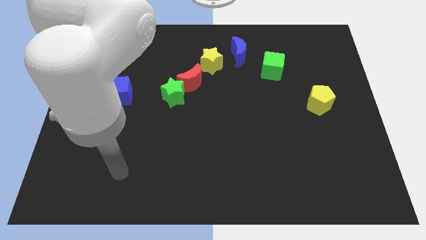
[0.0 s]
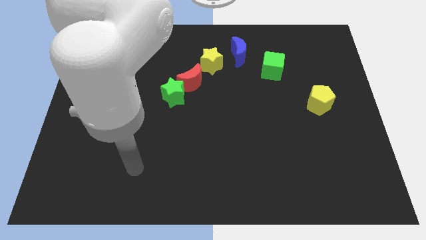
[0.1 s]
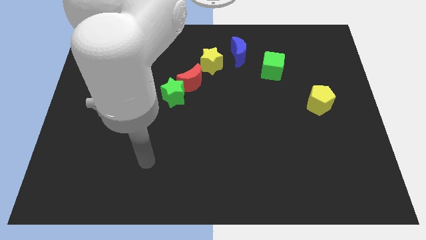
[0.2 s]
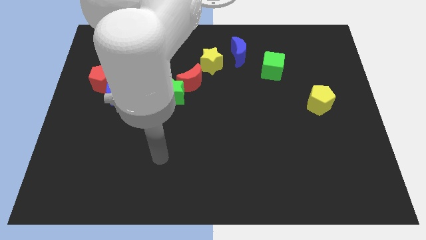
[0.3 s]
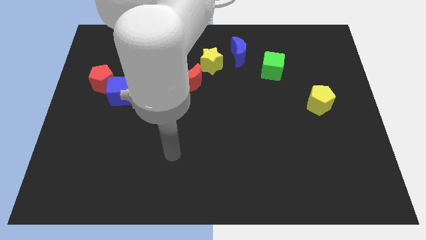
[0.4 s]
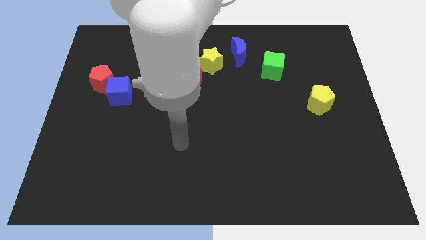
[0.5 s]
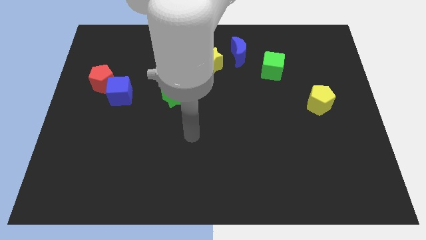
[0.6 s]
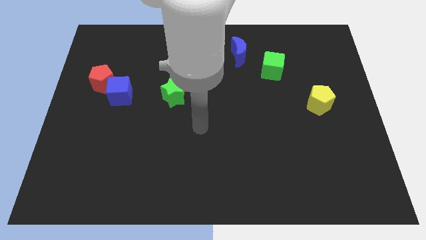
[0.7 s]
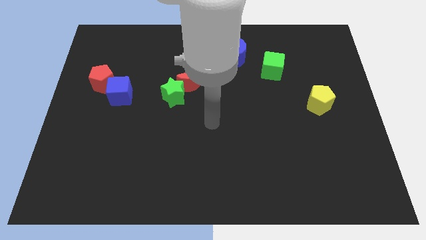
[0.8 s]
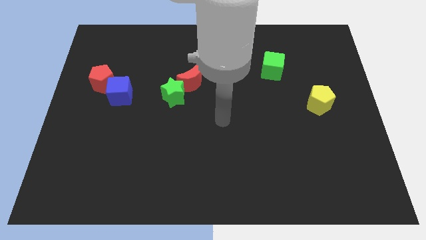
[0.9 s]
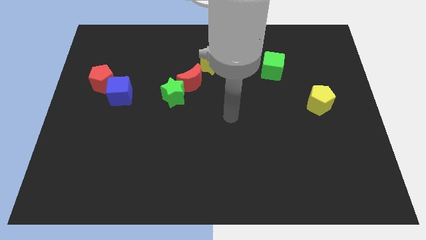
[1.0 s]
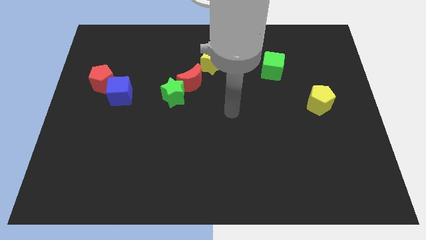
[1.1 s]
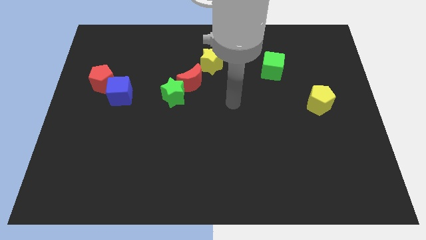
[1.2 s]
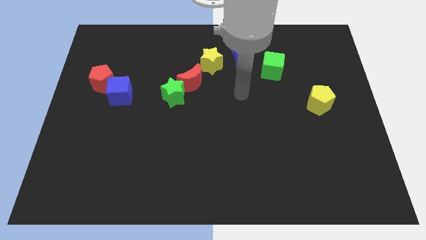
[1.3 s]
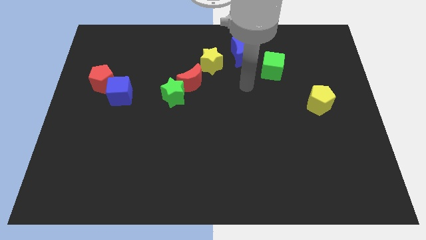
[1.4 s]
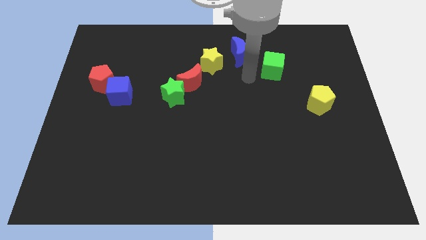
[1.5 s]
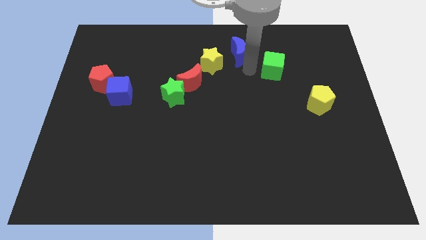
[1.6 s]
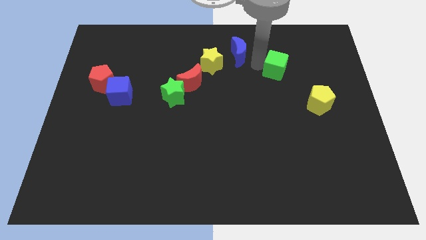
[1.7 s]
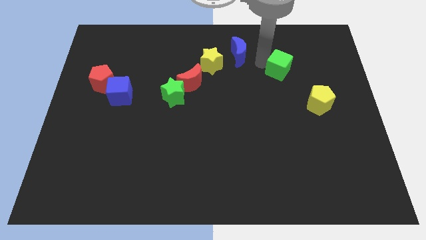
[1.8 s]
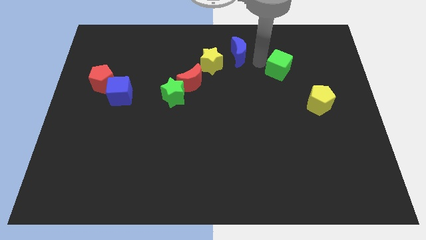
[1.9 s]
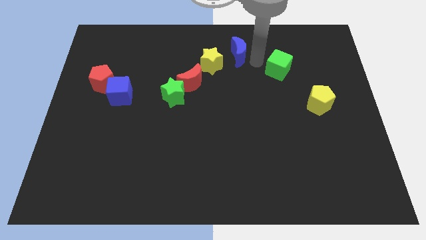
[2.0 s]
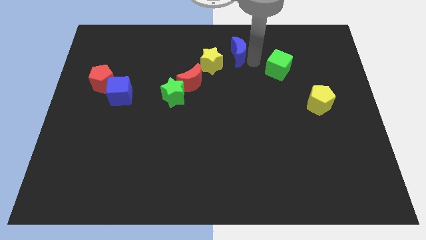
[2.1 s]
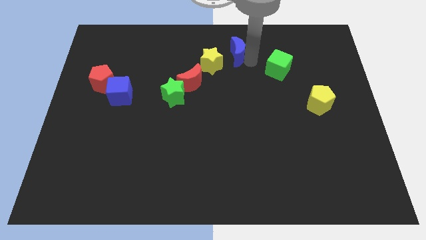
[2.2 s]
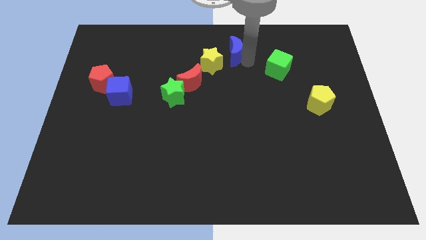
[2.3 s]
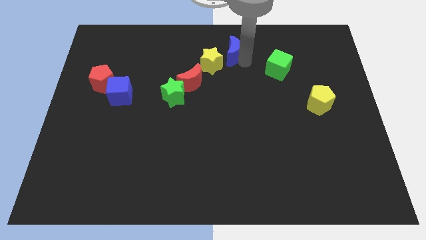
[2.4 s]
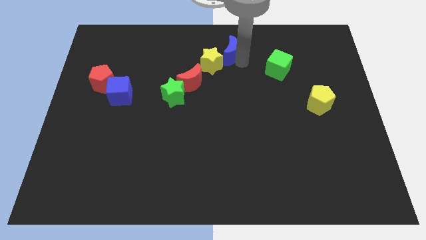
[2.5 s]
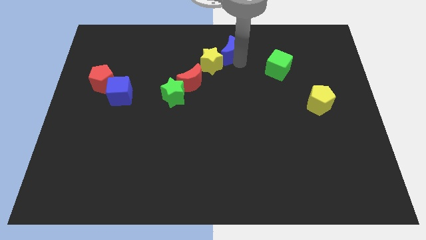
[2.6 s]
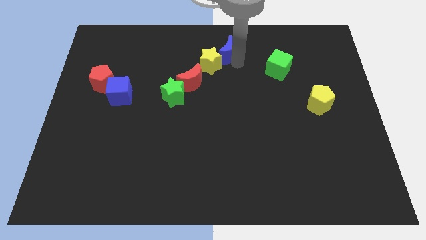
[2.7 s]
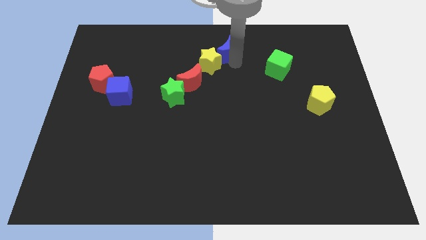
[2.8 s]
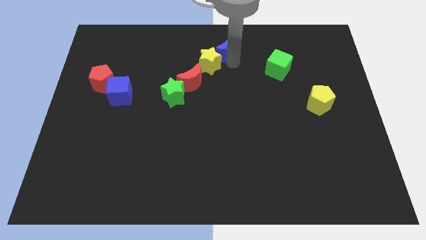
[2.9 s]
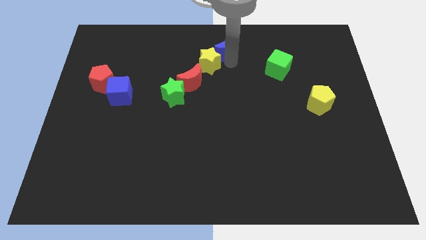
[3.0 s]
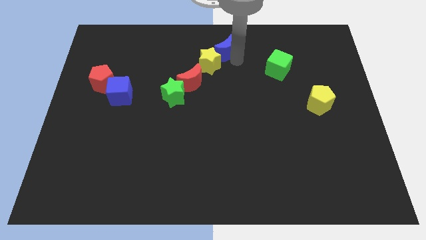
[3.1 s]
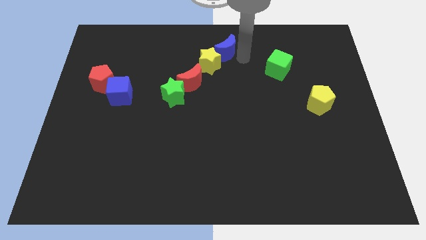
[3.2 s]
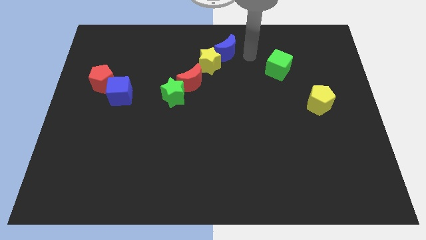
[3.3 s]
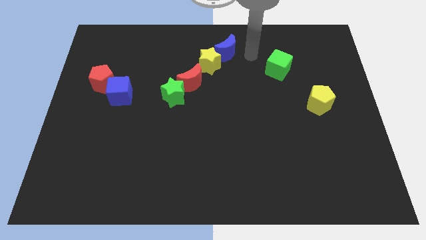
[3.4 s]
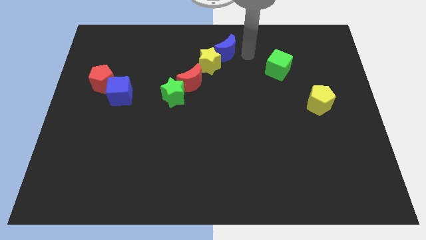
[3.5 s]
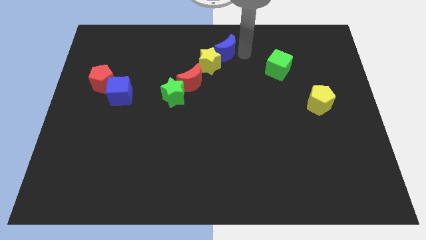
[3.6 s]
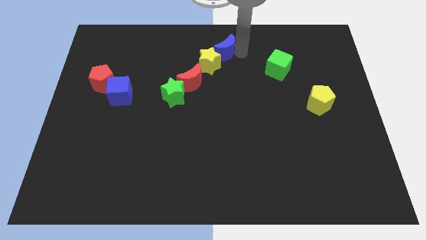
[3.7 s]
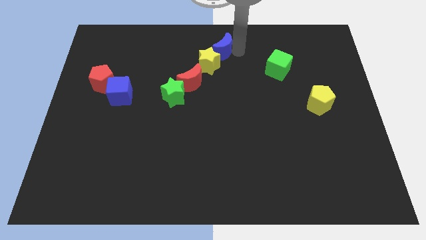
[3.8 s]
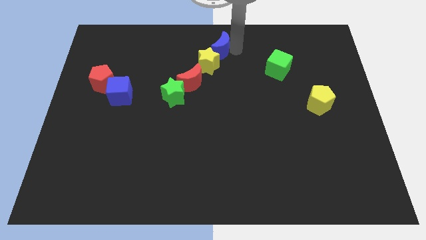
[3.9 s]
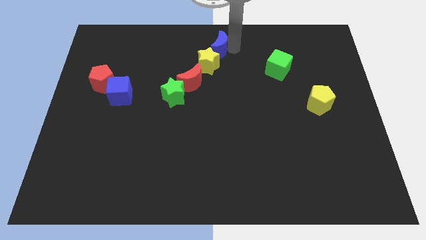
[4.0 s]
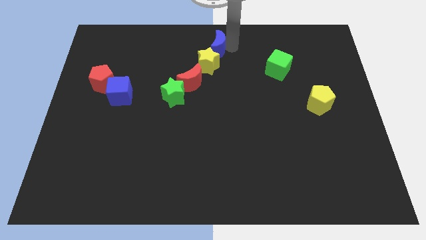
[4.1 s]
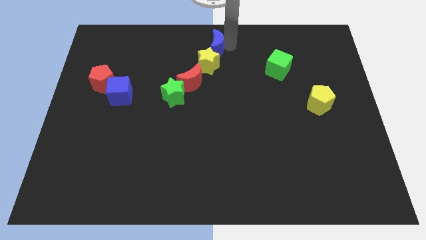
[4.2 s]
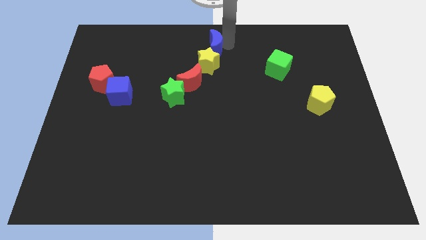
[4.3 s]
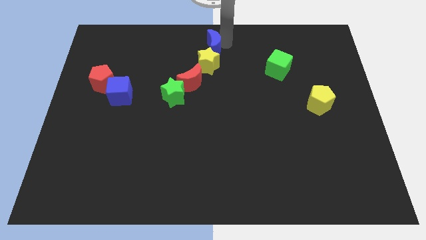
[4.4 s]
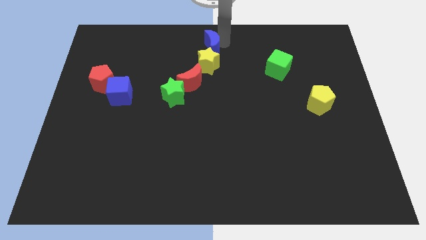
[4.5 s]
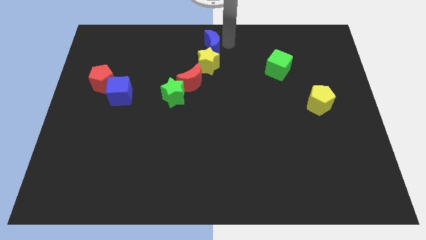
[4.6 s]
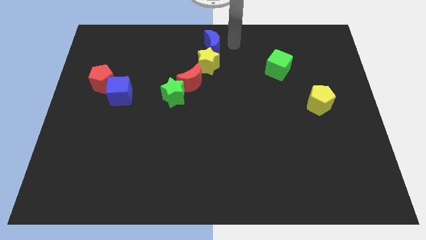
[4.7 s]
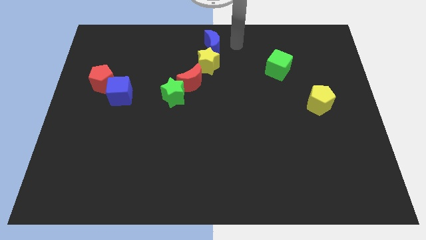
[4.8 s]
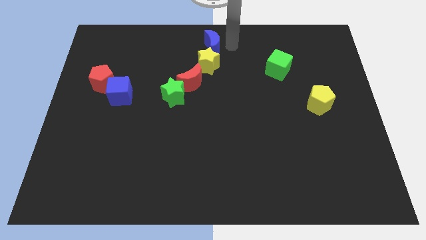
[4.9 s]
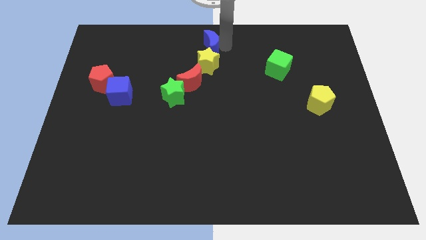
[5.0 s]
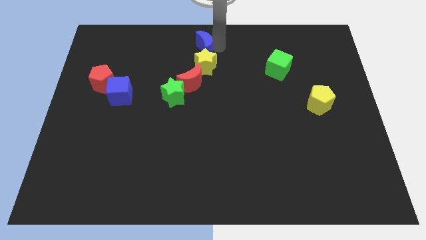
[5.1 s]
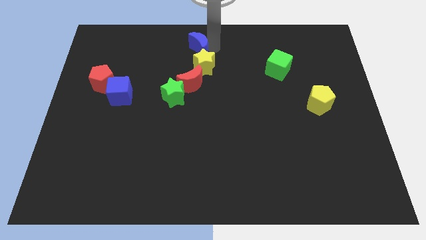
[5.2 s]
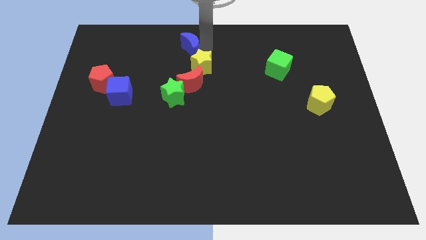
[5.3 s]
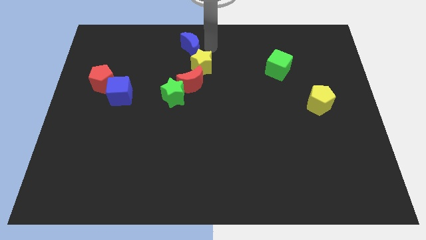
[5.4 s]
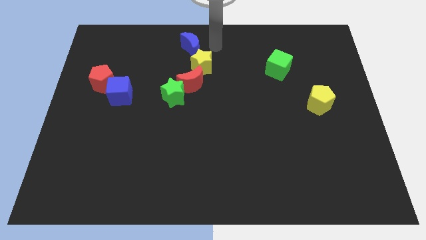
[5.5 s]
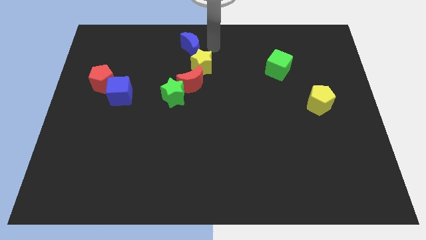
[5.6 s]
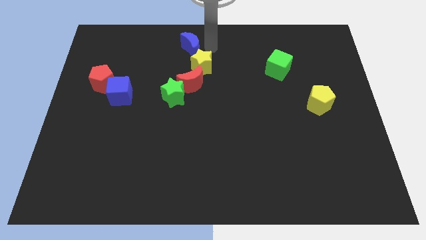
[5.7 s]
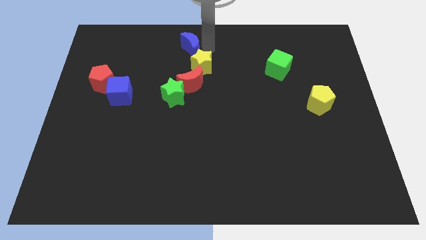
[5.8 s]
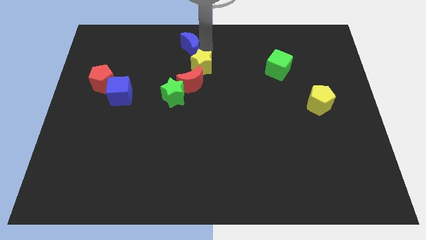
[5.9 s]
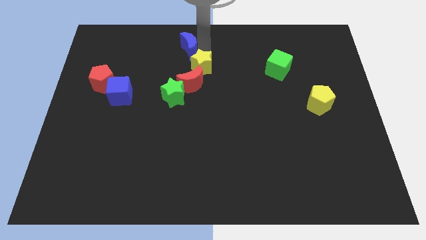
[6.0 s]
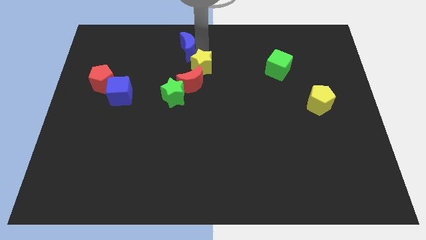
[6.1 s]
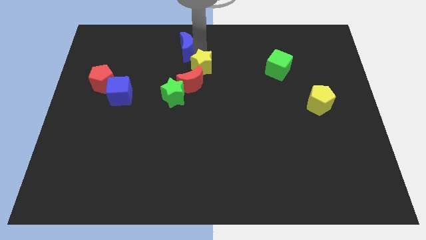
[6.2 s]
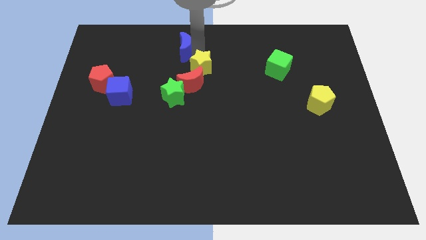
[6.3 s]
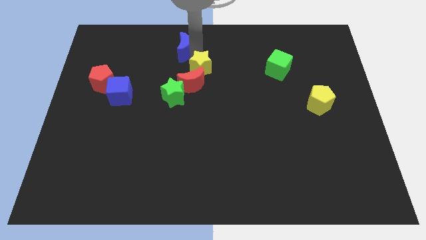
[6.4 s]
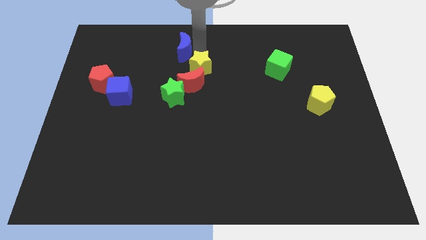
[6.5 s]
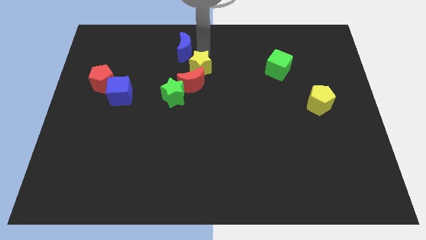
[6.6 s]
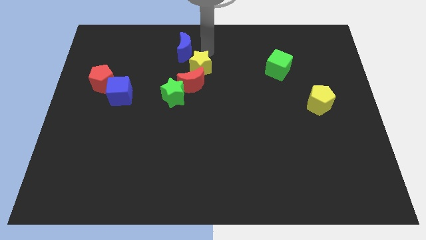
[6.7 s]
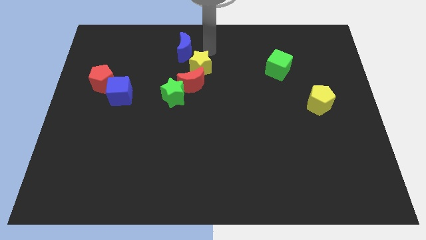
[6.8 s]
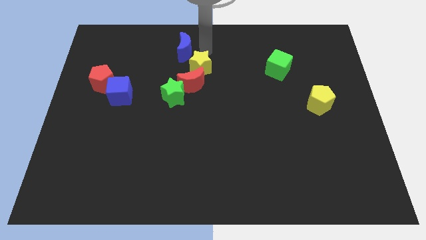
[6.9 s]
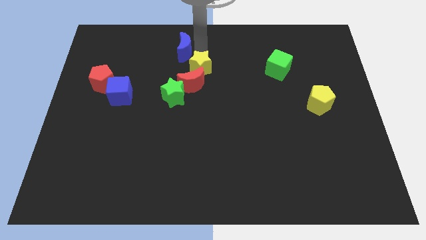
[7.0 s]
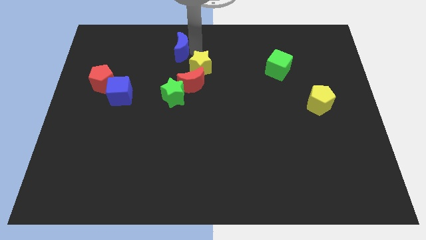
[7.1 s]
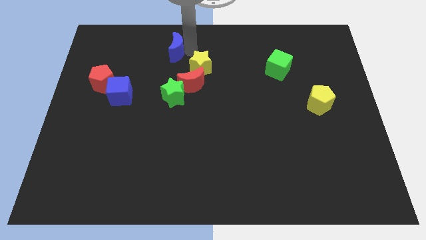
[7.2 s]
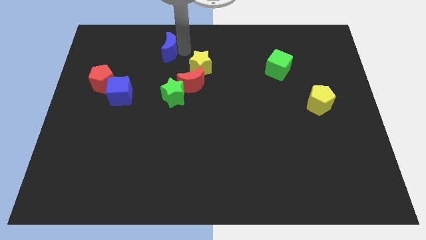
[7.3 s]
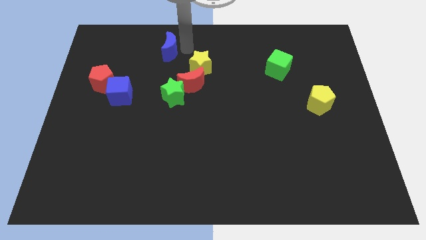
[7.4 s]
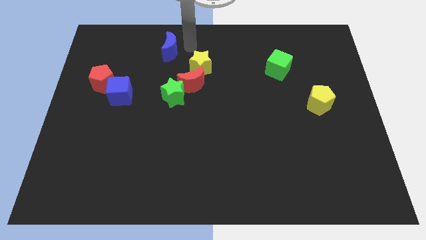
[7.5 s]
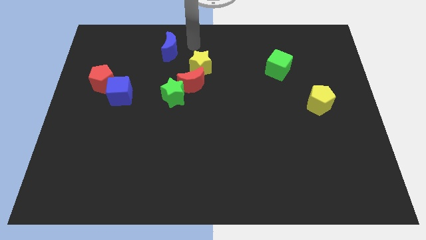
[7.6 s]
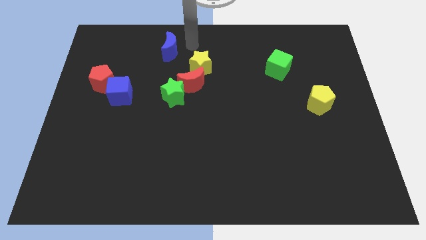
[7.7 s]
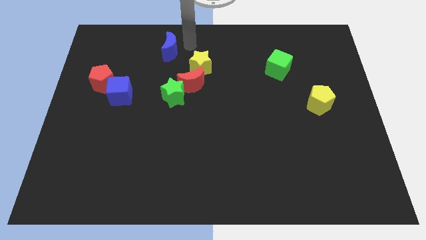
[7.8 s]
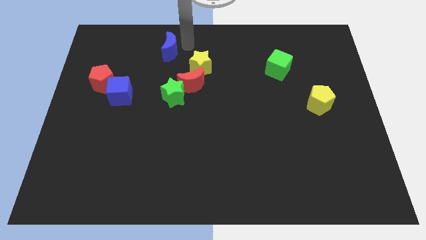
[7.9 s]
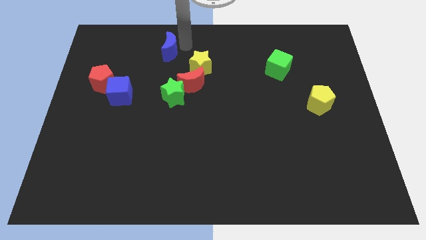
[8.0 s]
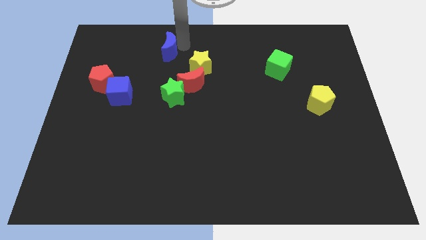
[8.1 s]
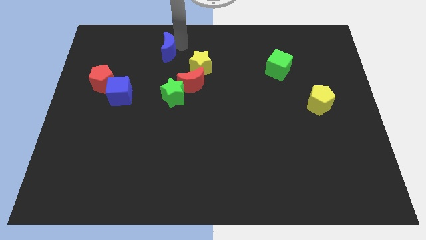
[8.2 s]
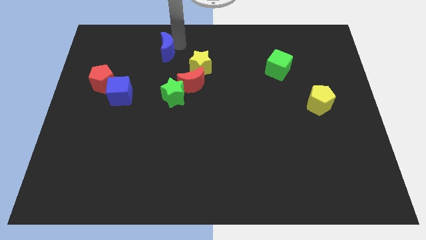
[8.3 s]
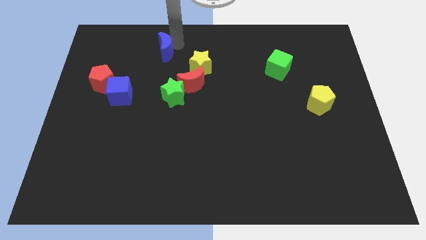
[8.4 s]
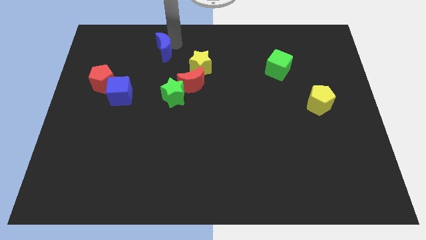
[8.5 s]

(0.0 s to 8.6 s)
slide the blue moon left
